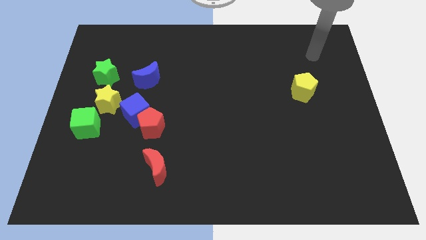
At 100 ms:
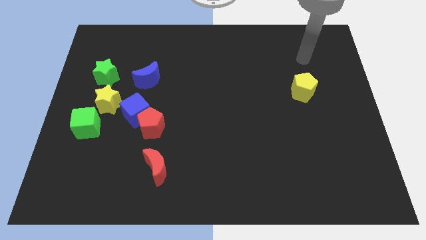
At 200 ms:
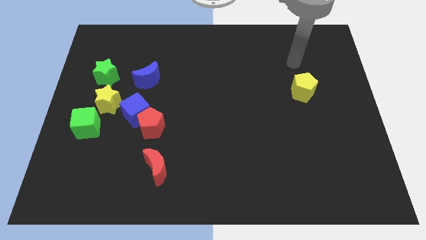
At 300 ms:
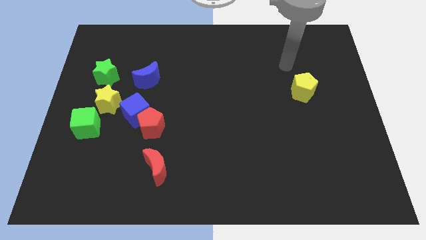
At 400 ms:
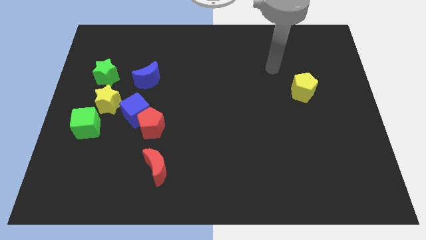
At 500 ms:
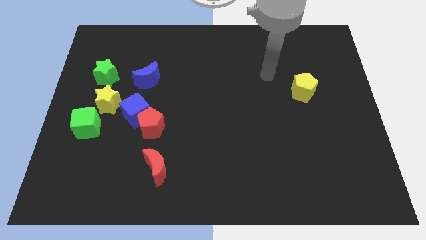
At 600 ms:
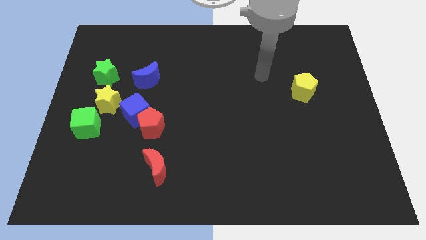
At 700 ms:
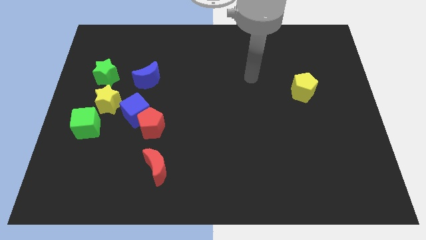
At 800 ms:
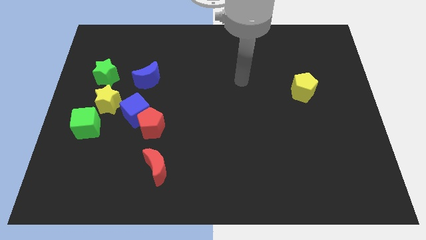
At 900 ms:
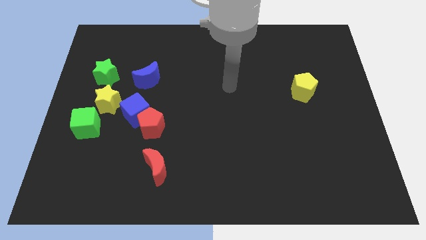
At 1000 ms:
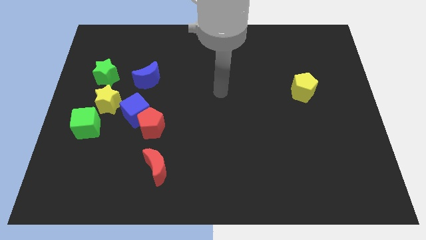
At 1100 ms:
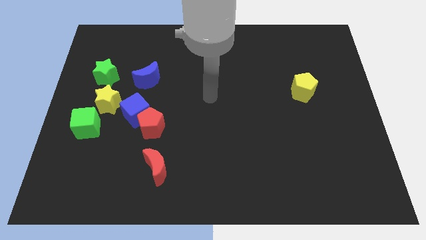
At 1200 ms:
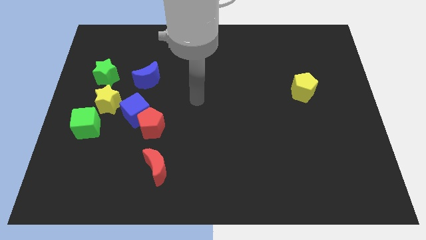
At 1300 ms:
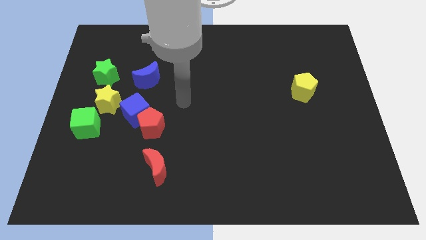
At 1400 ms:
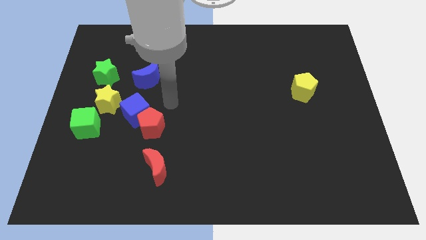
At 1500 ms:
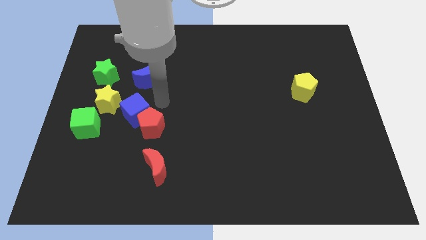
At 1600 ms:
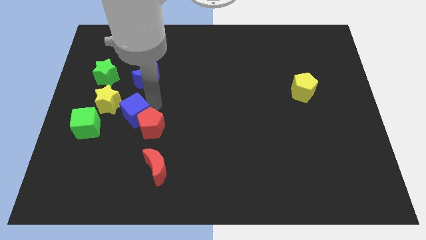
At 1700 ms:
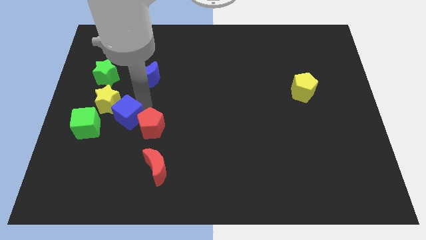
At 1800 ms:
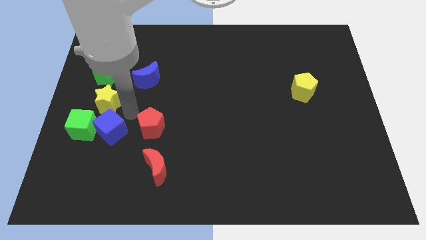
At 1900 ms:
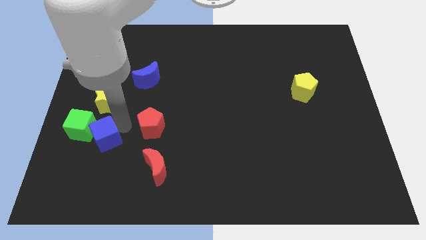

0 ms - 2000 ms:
separate the red pentagon from the blue cube

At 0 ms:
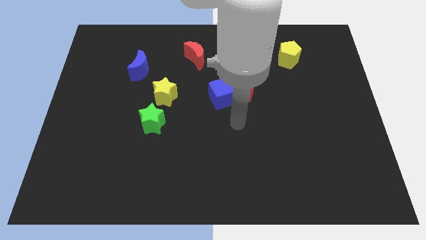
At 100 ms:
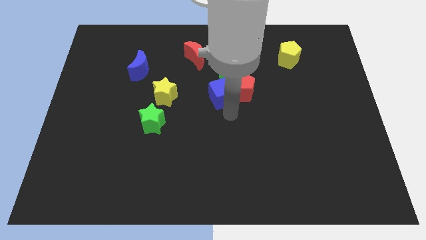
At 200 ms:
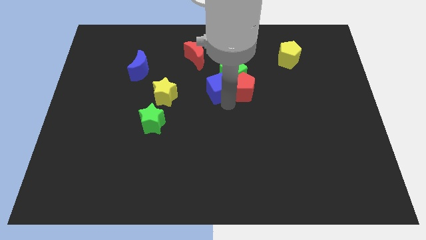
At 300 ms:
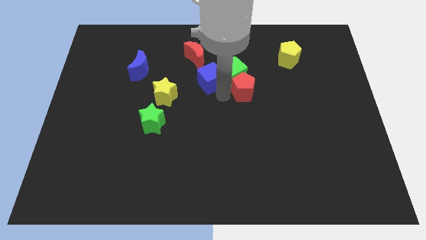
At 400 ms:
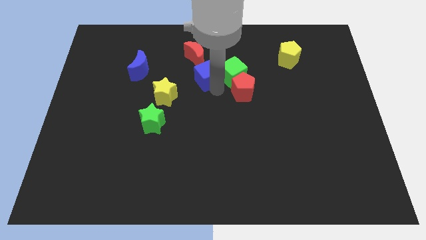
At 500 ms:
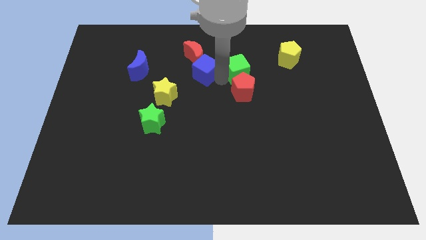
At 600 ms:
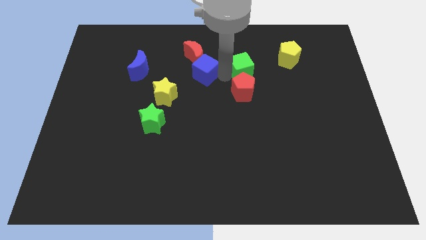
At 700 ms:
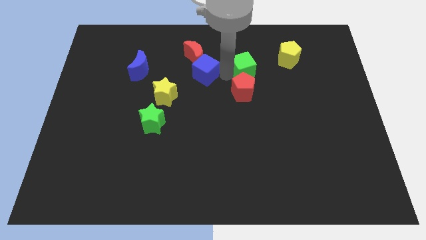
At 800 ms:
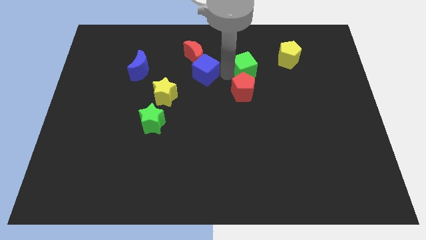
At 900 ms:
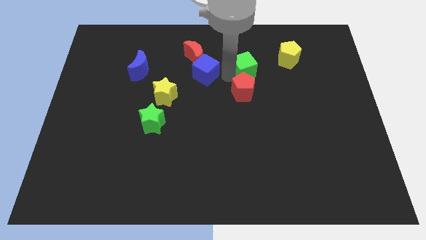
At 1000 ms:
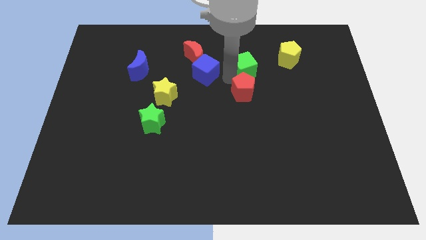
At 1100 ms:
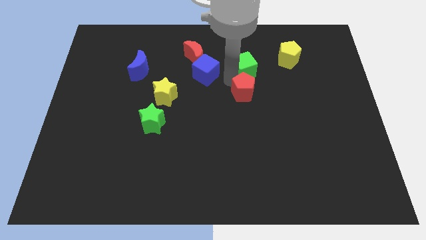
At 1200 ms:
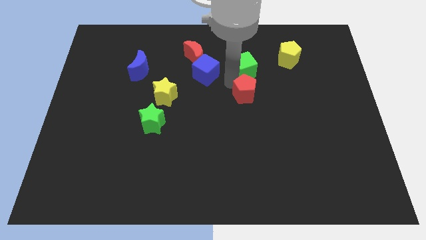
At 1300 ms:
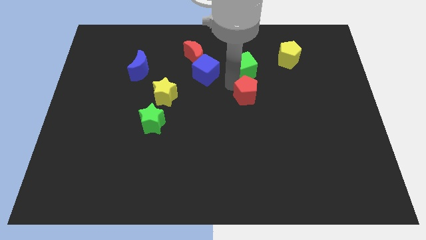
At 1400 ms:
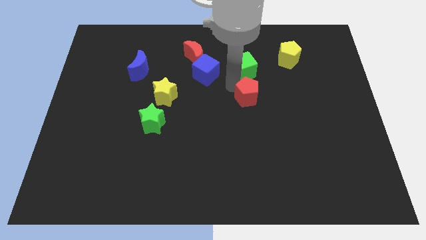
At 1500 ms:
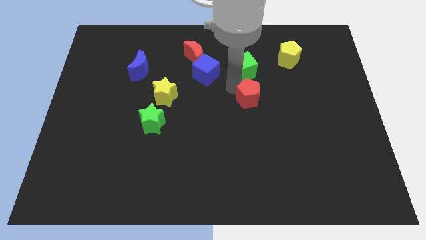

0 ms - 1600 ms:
pull the red pentagon apart from the blue cube and green cube

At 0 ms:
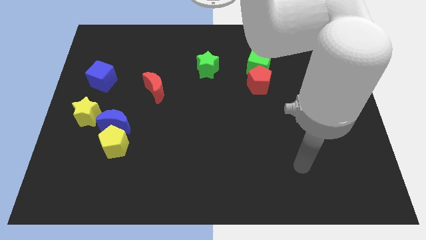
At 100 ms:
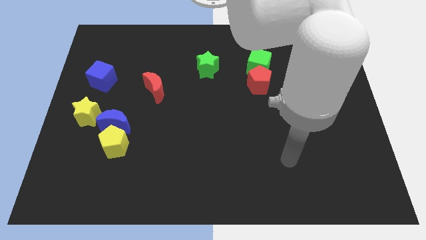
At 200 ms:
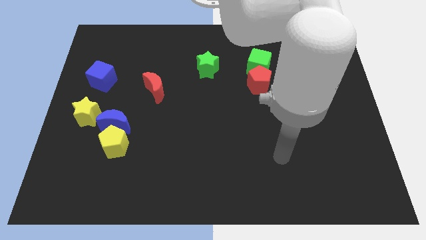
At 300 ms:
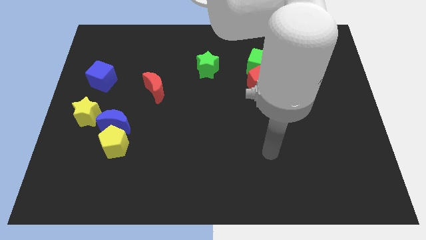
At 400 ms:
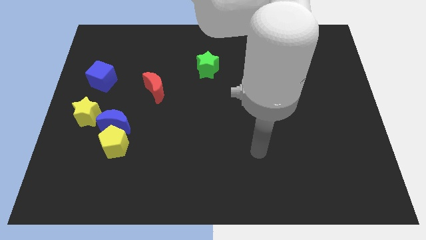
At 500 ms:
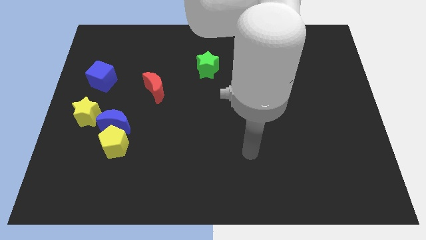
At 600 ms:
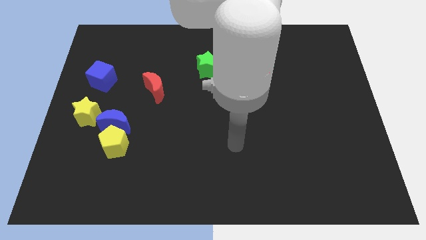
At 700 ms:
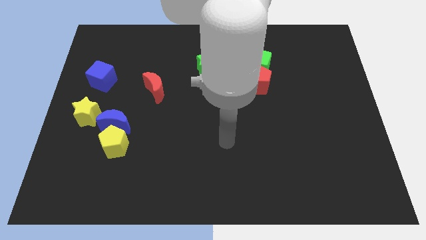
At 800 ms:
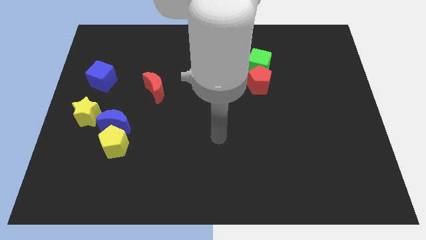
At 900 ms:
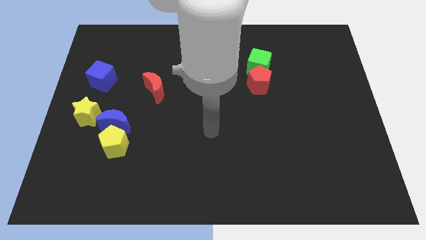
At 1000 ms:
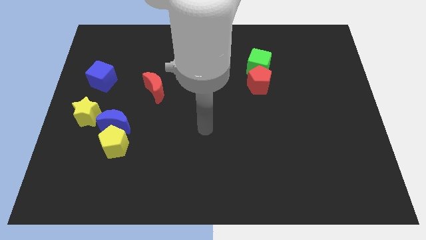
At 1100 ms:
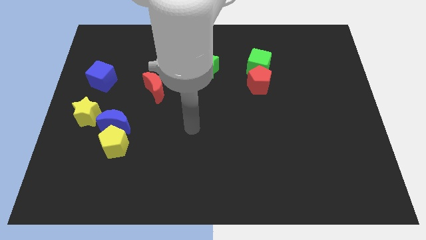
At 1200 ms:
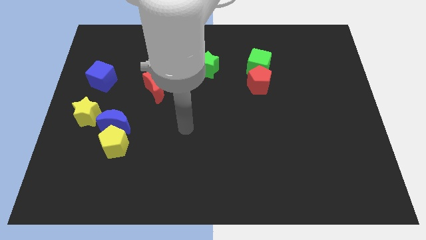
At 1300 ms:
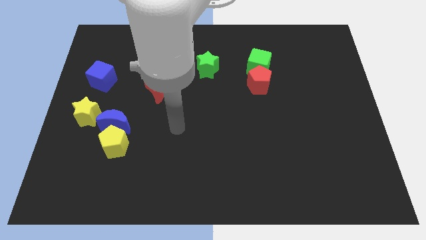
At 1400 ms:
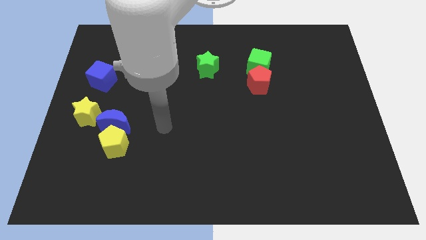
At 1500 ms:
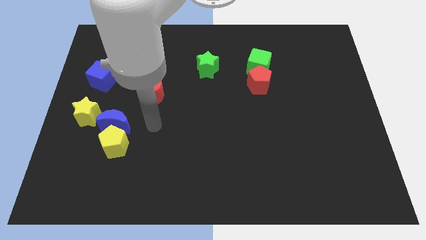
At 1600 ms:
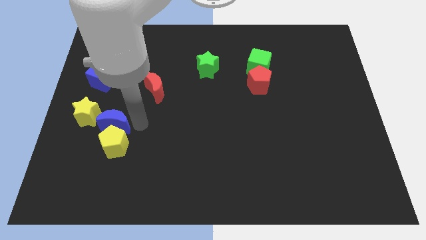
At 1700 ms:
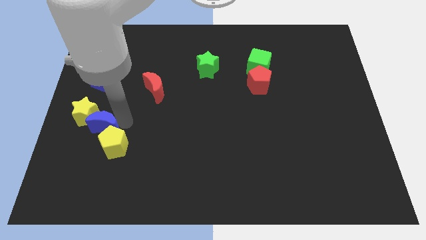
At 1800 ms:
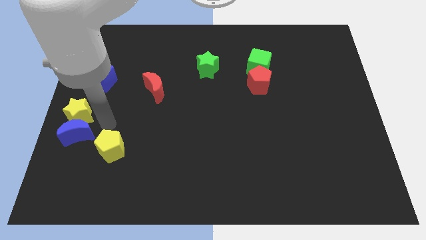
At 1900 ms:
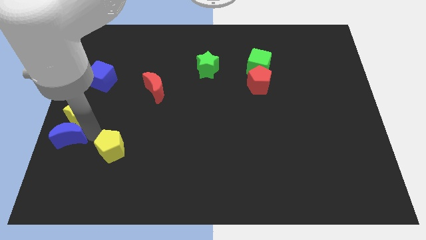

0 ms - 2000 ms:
move the yellow pentagon away from the blue moon

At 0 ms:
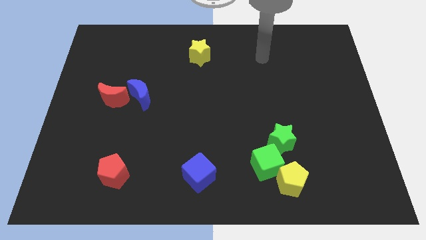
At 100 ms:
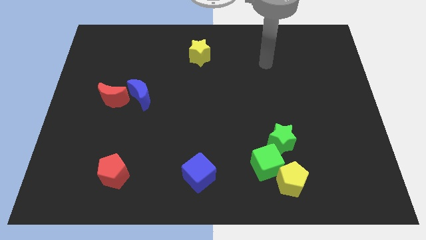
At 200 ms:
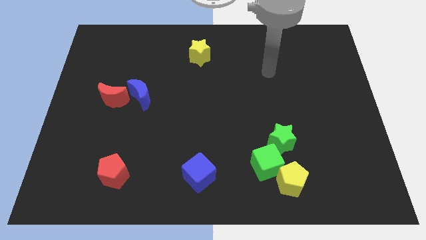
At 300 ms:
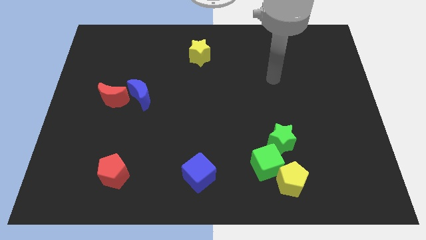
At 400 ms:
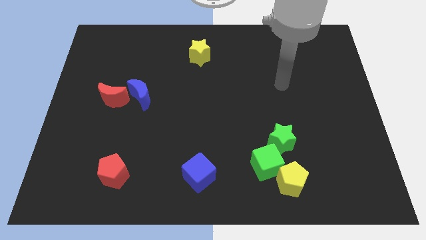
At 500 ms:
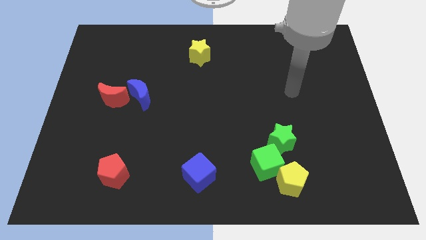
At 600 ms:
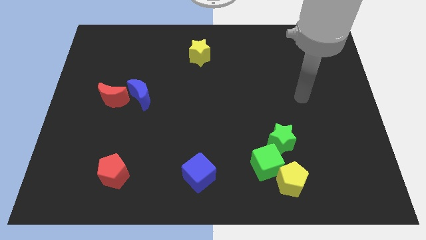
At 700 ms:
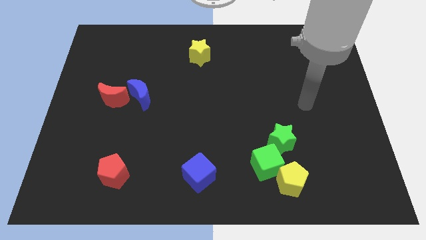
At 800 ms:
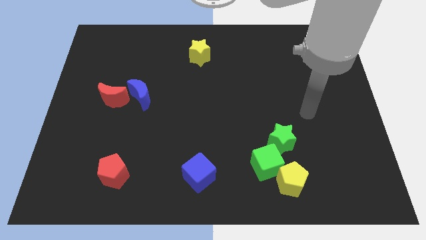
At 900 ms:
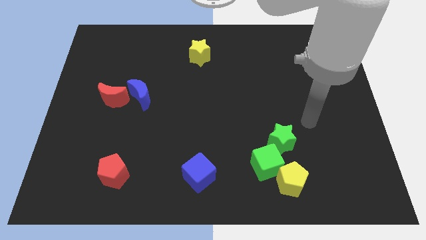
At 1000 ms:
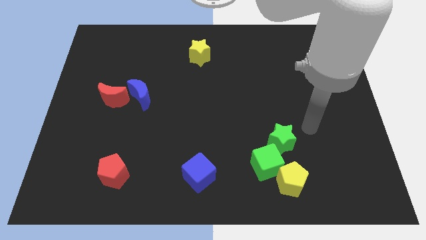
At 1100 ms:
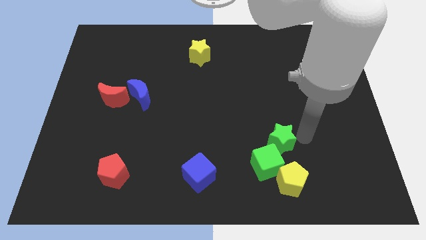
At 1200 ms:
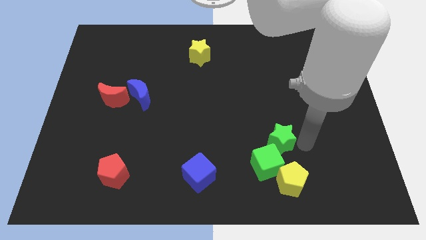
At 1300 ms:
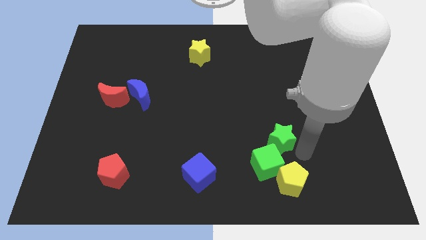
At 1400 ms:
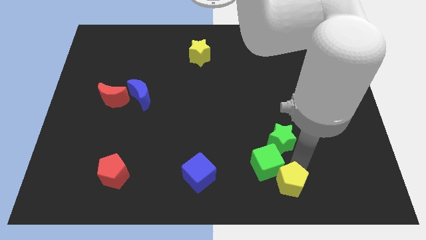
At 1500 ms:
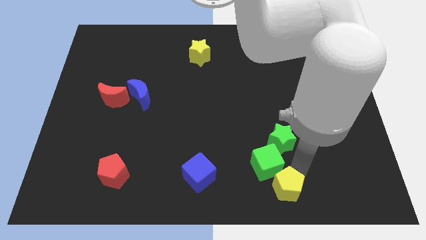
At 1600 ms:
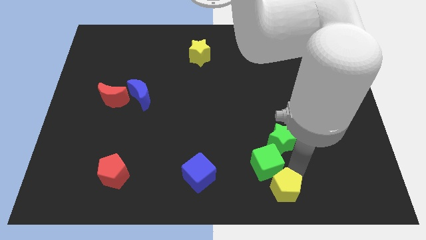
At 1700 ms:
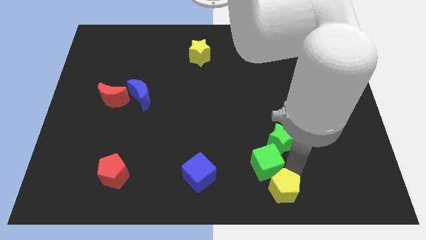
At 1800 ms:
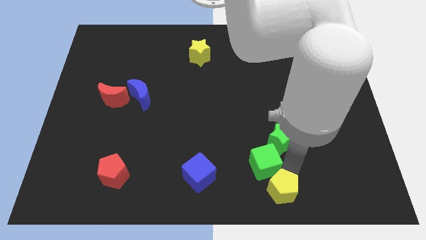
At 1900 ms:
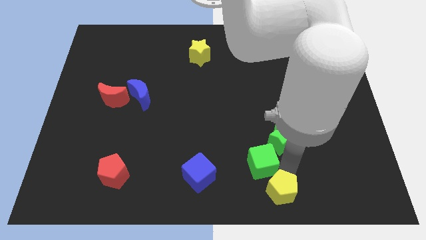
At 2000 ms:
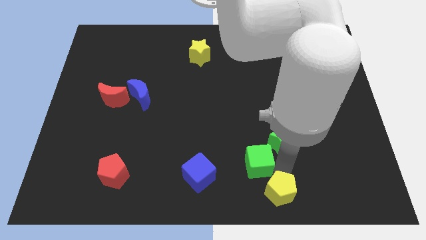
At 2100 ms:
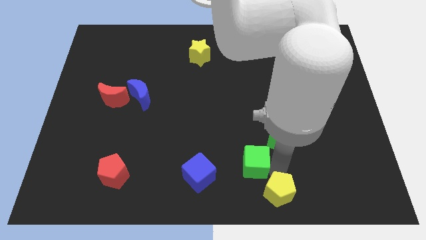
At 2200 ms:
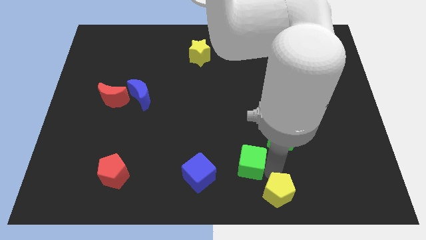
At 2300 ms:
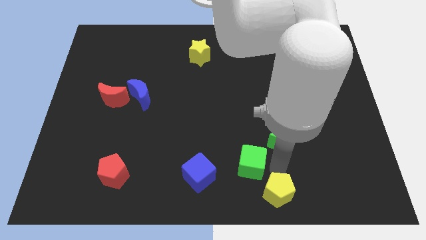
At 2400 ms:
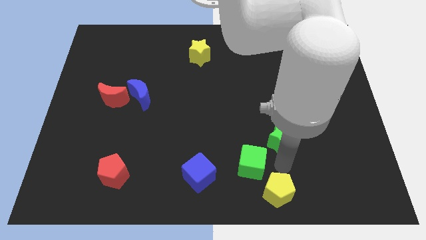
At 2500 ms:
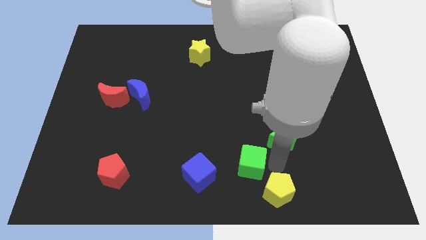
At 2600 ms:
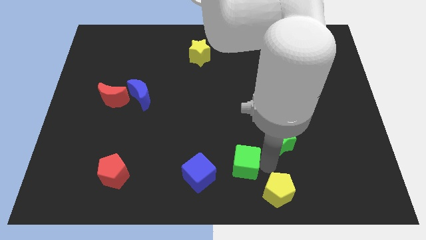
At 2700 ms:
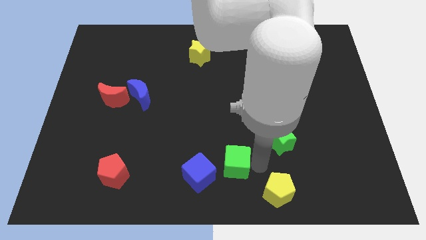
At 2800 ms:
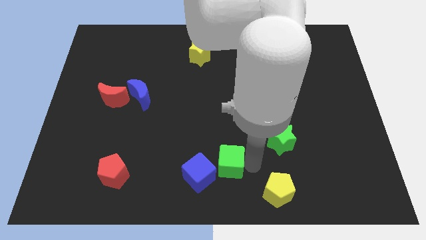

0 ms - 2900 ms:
pull the green cube apart from the yellow pentagon and green star

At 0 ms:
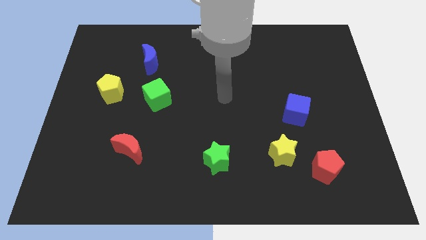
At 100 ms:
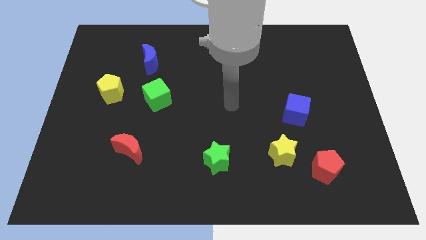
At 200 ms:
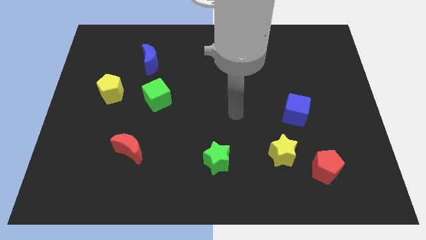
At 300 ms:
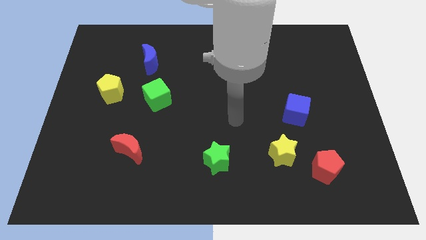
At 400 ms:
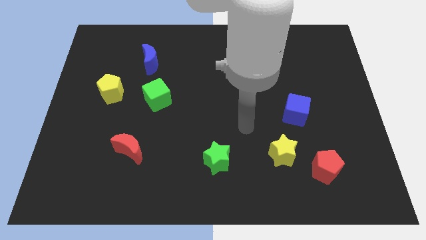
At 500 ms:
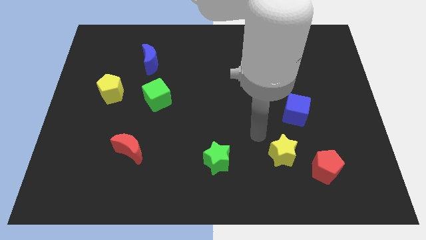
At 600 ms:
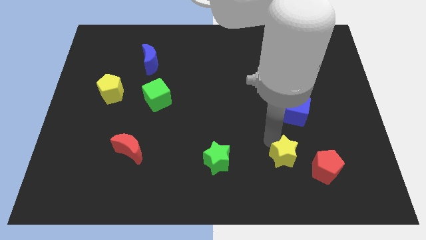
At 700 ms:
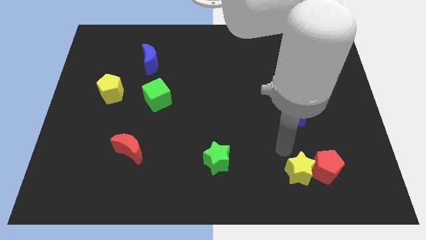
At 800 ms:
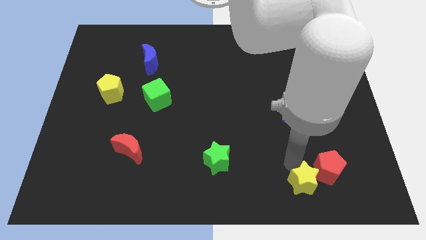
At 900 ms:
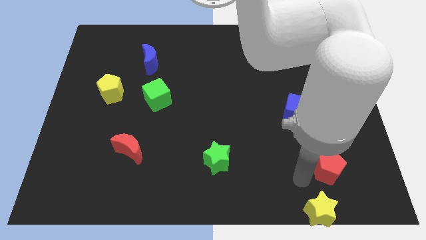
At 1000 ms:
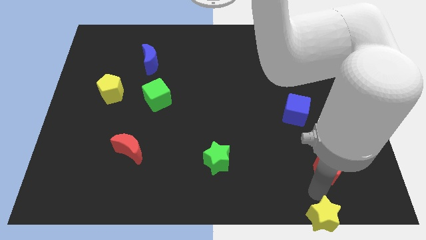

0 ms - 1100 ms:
pull the red pentagon apart from the yellow star
